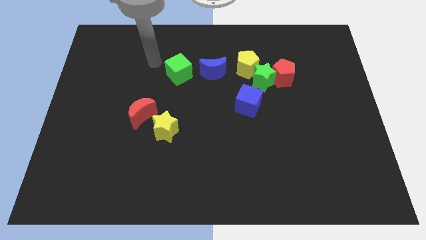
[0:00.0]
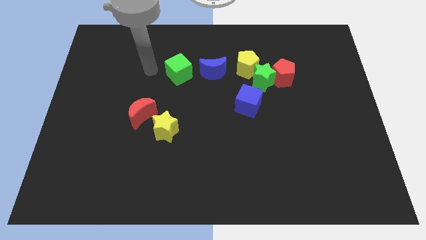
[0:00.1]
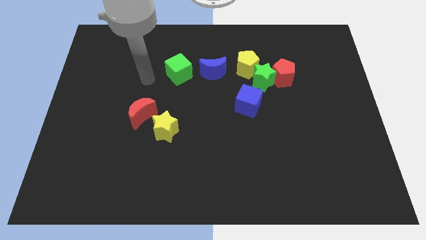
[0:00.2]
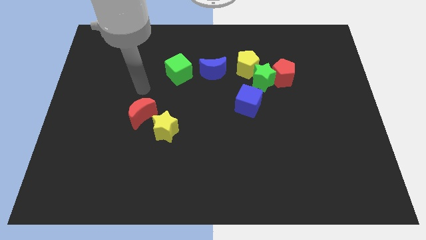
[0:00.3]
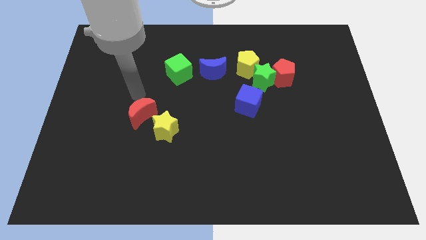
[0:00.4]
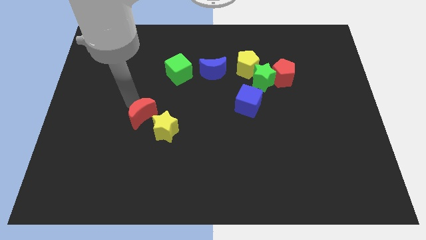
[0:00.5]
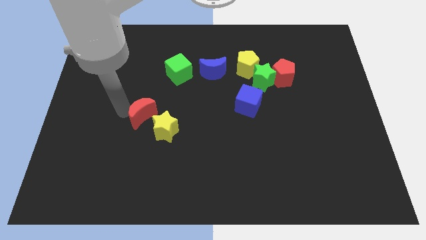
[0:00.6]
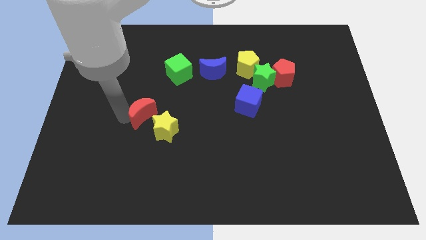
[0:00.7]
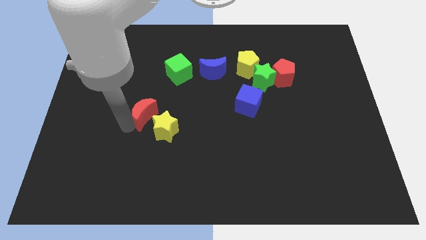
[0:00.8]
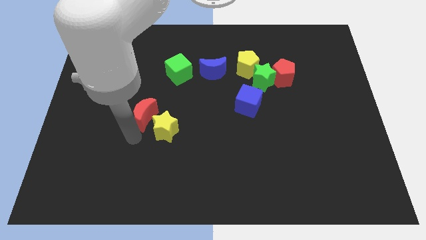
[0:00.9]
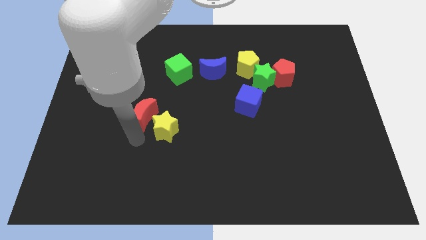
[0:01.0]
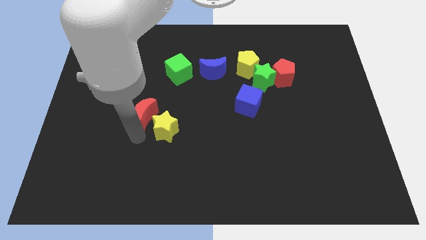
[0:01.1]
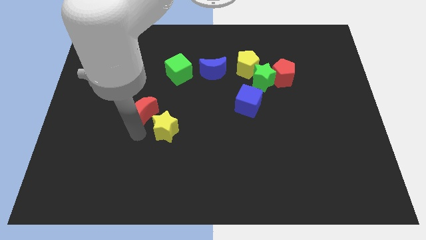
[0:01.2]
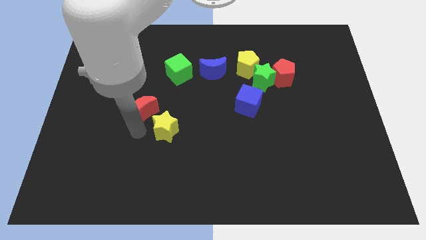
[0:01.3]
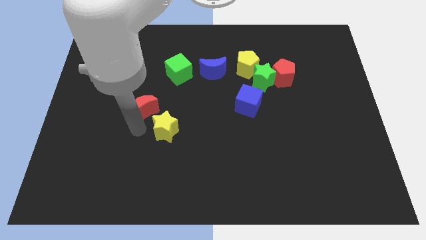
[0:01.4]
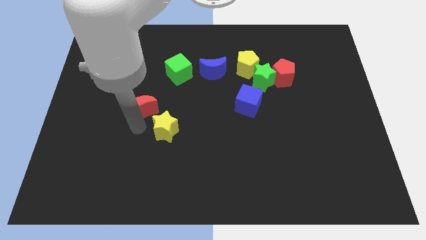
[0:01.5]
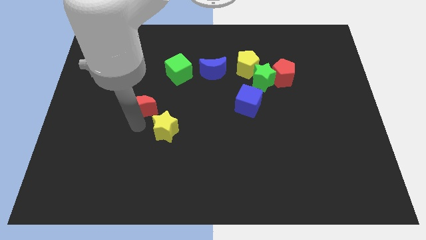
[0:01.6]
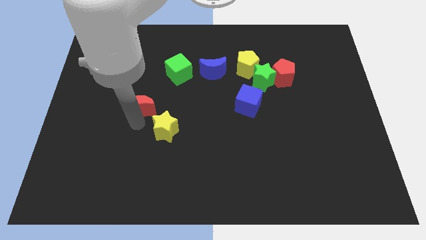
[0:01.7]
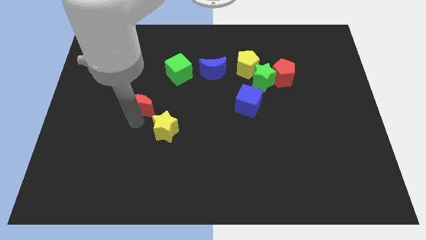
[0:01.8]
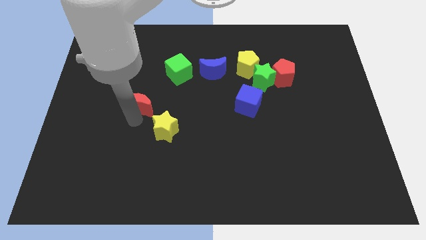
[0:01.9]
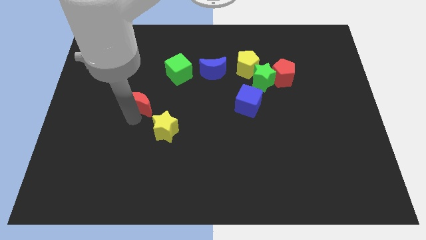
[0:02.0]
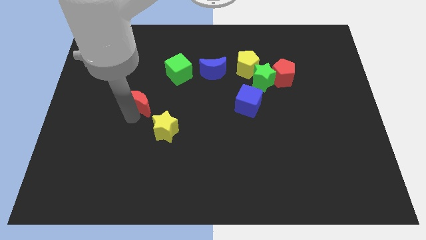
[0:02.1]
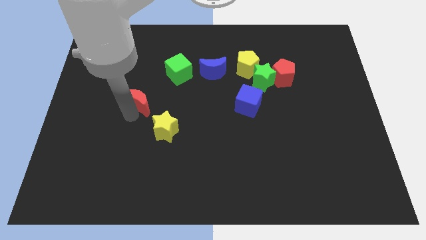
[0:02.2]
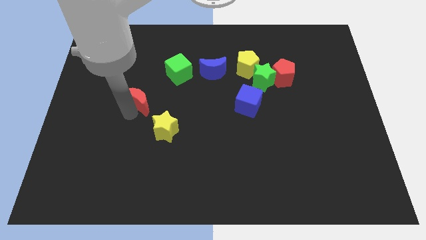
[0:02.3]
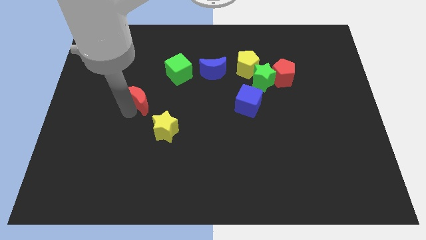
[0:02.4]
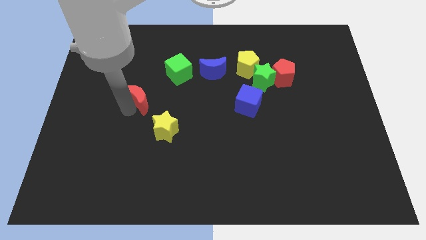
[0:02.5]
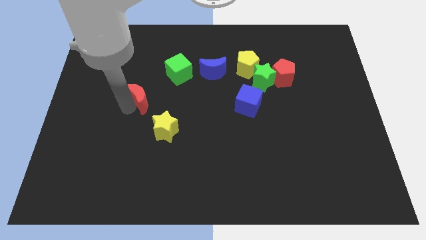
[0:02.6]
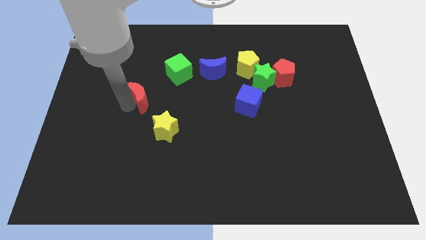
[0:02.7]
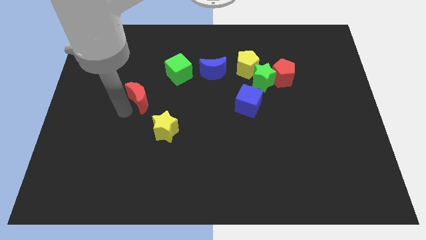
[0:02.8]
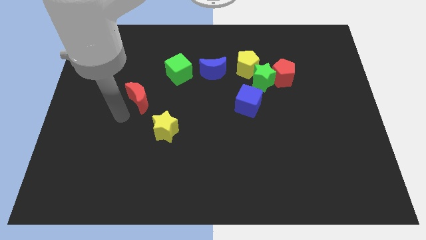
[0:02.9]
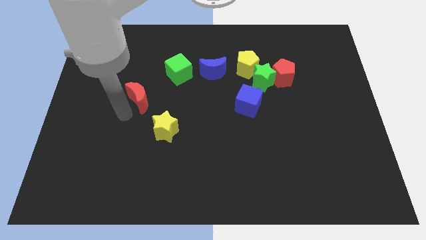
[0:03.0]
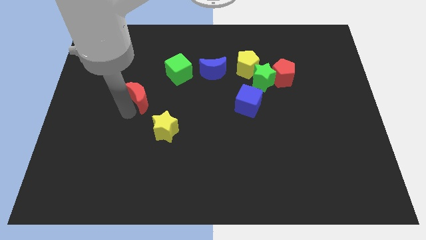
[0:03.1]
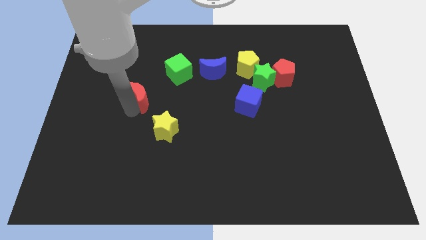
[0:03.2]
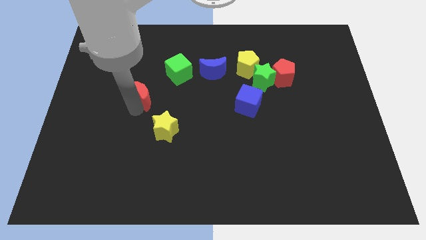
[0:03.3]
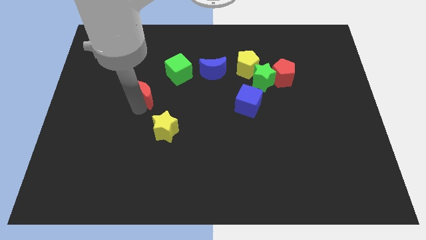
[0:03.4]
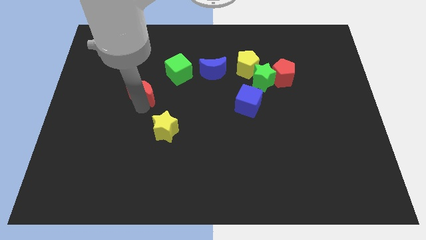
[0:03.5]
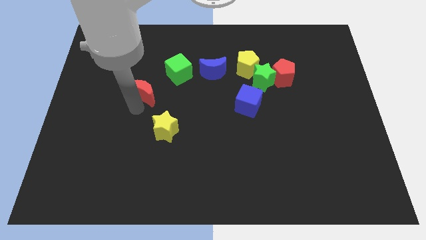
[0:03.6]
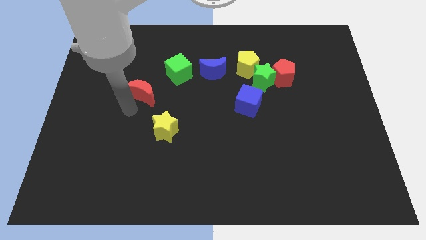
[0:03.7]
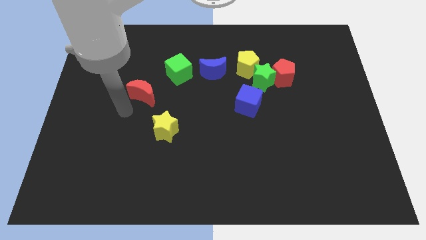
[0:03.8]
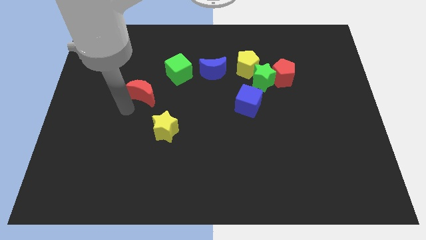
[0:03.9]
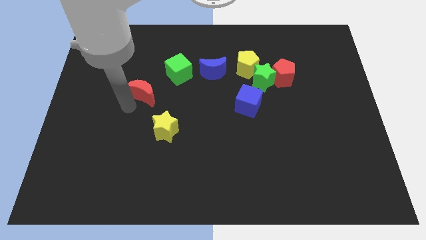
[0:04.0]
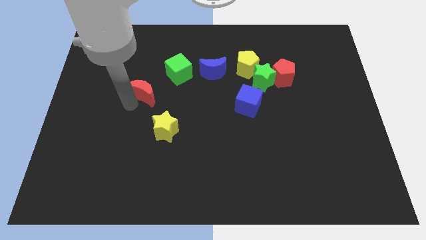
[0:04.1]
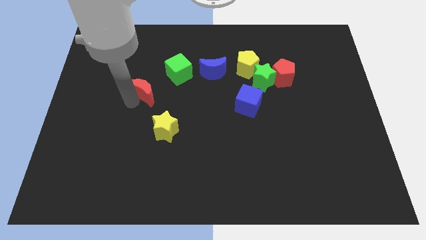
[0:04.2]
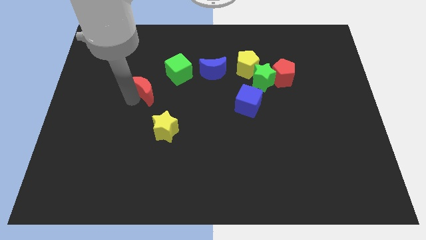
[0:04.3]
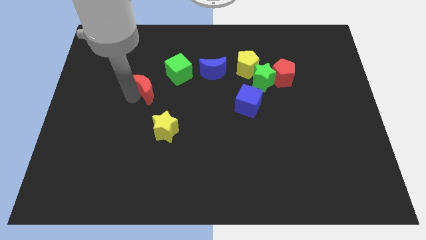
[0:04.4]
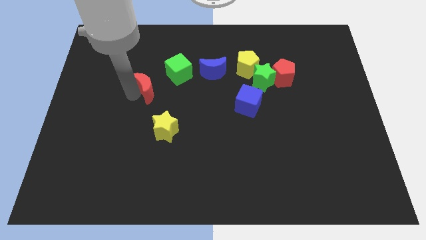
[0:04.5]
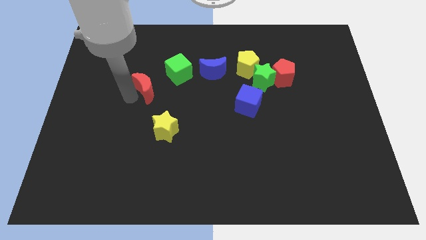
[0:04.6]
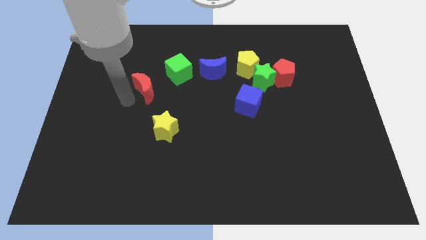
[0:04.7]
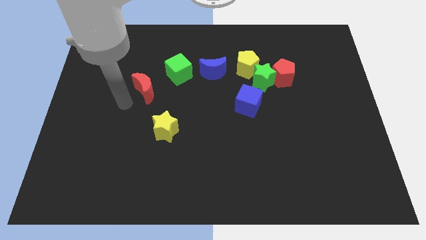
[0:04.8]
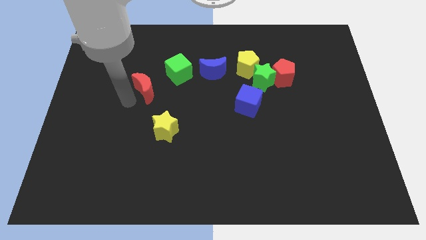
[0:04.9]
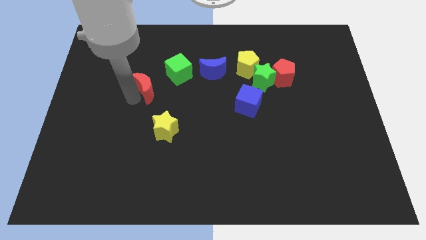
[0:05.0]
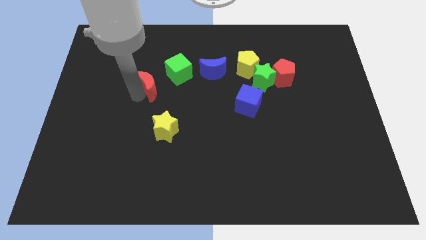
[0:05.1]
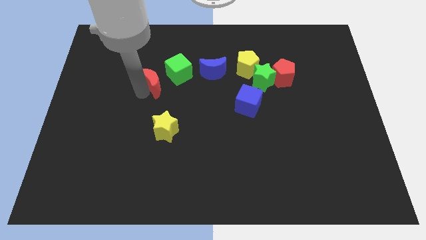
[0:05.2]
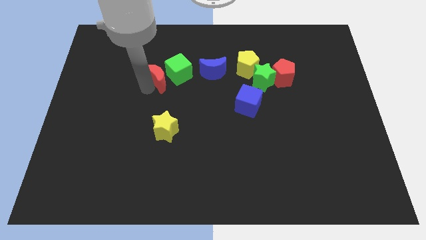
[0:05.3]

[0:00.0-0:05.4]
move the red moon towards the green cube

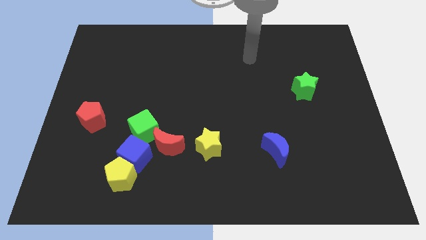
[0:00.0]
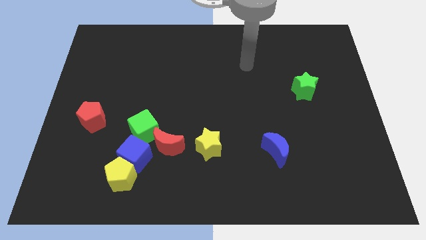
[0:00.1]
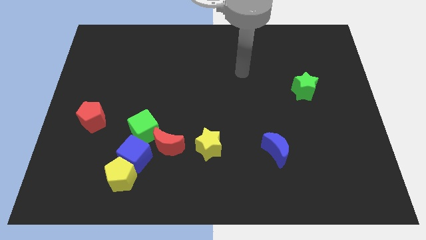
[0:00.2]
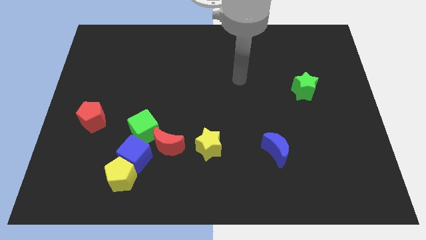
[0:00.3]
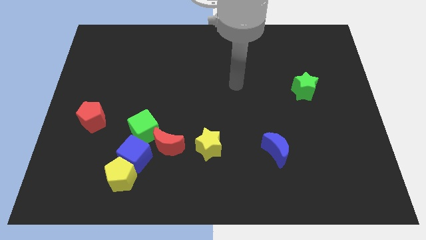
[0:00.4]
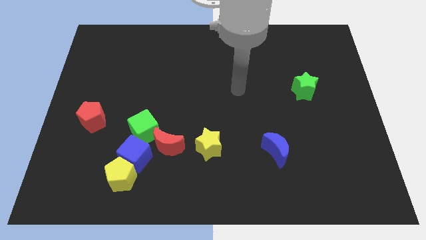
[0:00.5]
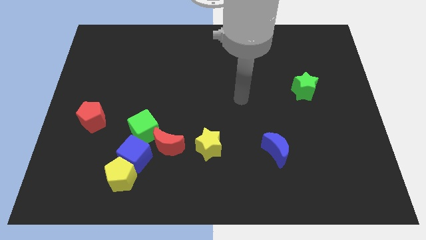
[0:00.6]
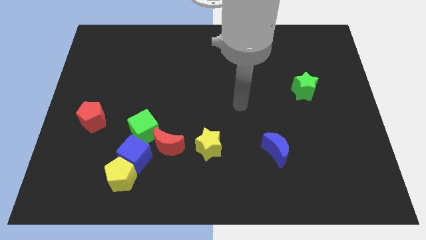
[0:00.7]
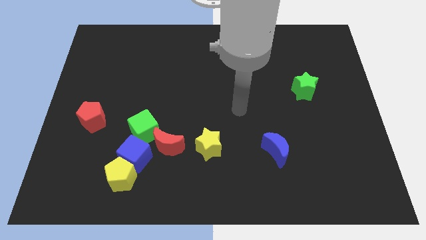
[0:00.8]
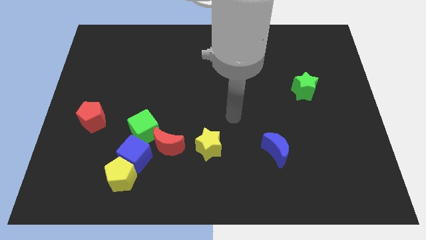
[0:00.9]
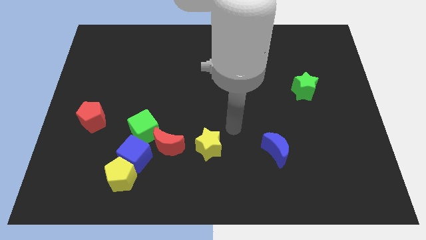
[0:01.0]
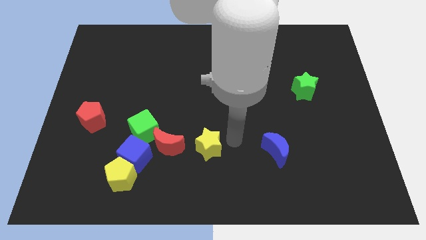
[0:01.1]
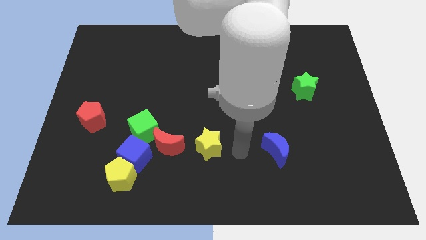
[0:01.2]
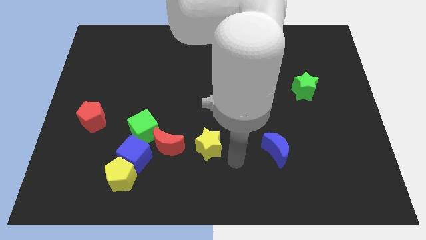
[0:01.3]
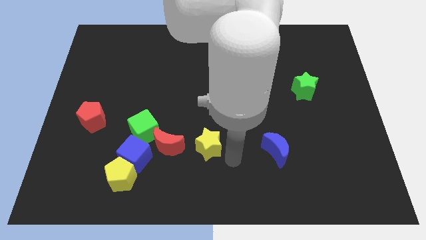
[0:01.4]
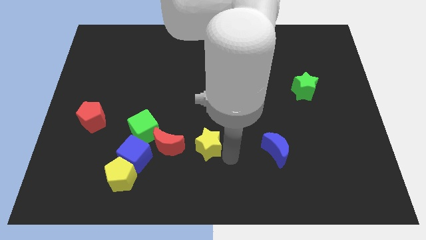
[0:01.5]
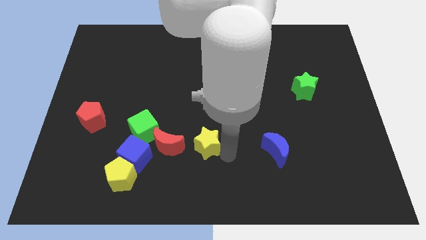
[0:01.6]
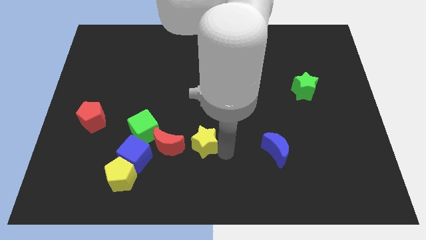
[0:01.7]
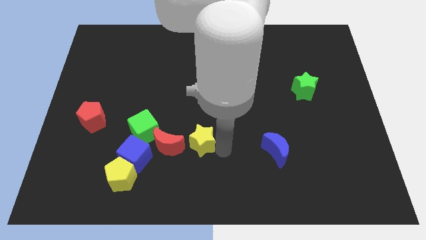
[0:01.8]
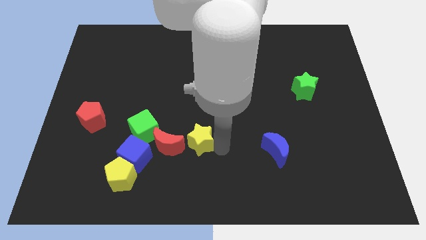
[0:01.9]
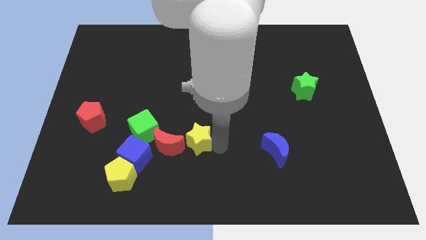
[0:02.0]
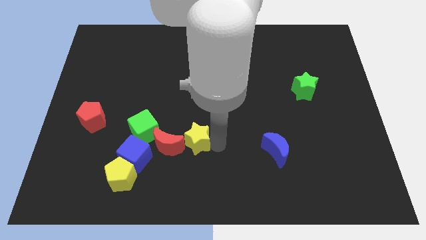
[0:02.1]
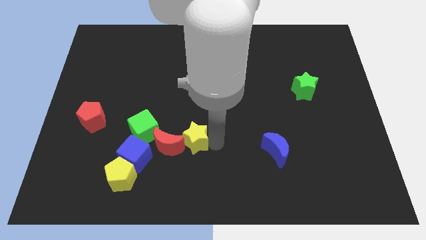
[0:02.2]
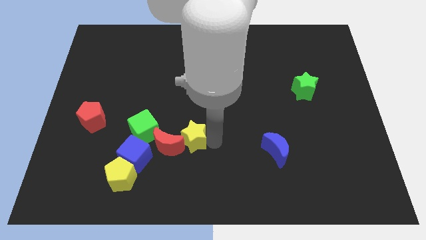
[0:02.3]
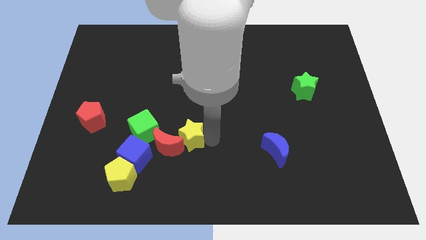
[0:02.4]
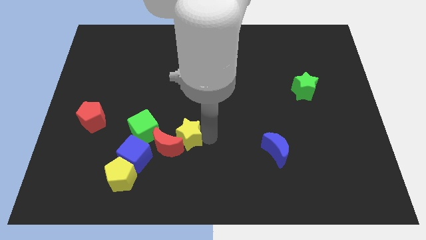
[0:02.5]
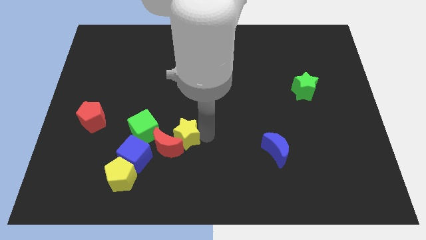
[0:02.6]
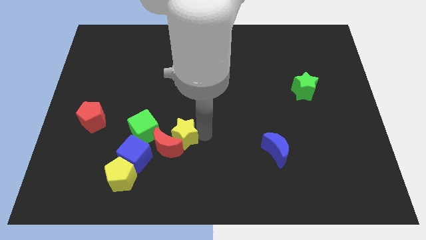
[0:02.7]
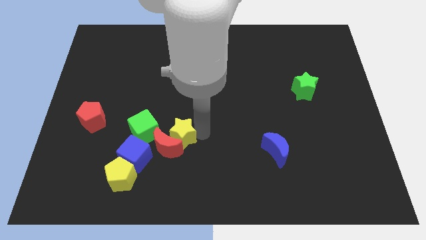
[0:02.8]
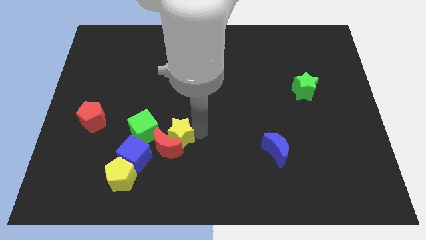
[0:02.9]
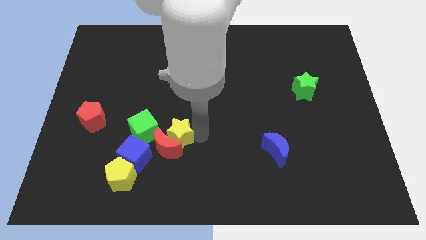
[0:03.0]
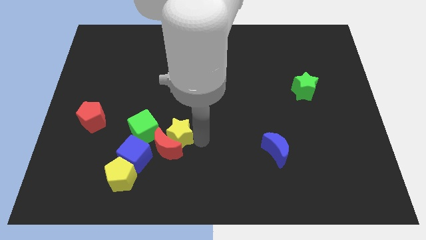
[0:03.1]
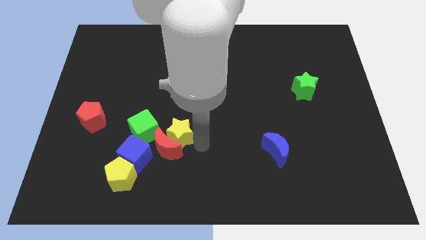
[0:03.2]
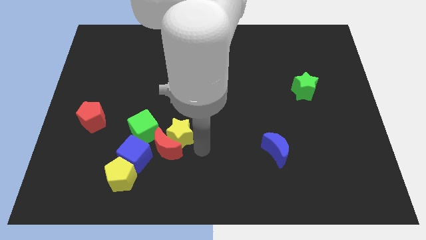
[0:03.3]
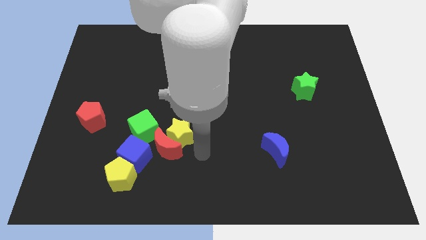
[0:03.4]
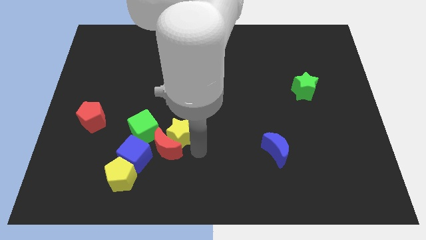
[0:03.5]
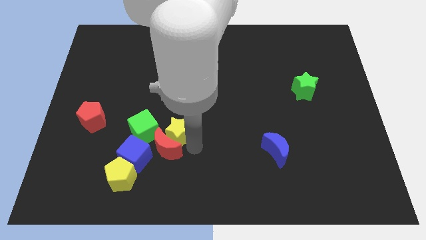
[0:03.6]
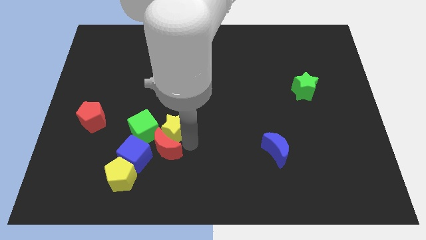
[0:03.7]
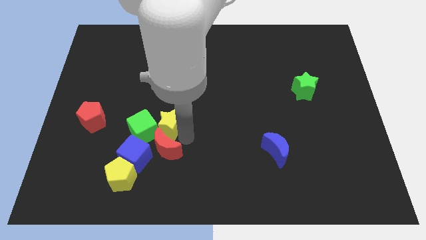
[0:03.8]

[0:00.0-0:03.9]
slide the yellow star to the green cube
